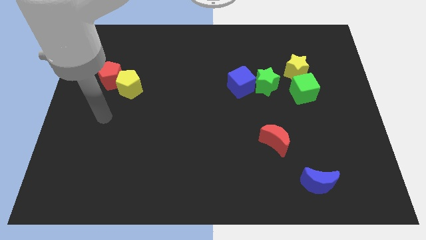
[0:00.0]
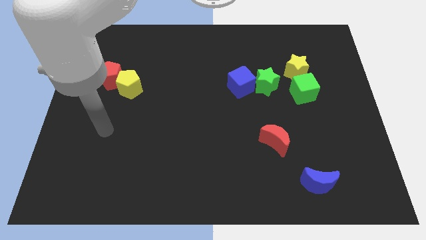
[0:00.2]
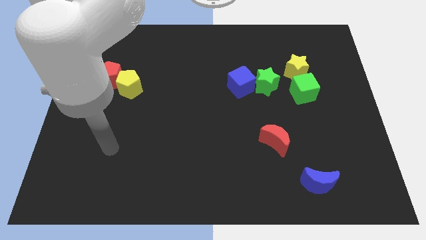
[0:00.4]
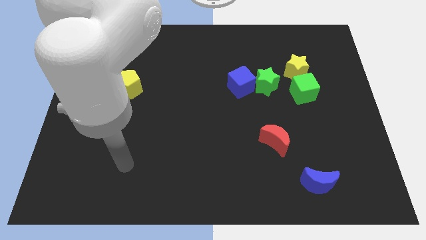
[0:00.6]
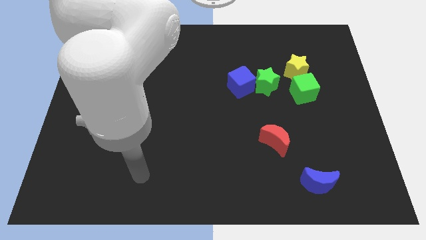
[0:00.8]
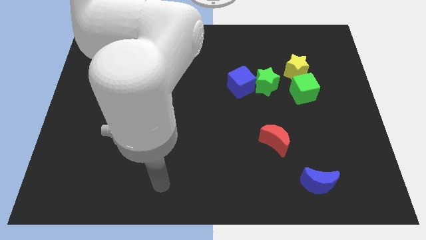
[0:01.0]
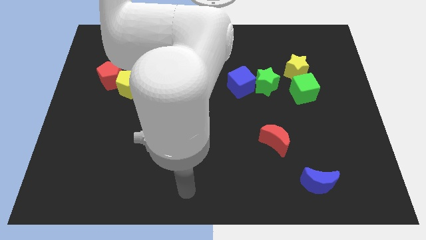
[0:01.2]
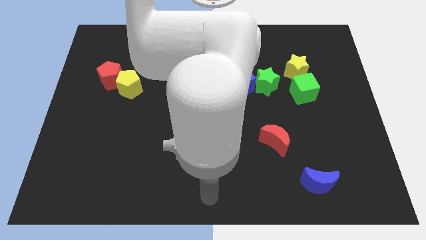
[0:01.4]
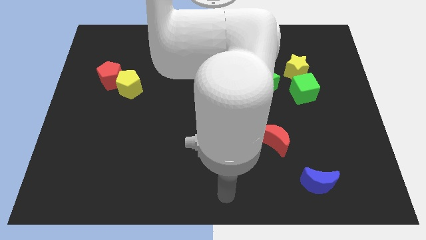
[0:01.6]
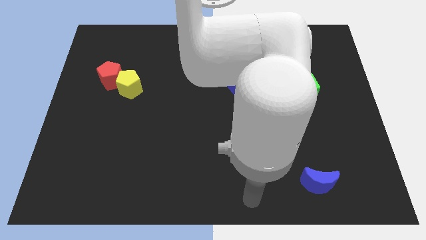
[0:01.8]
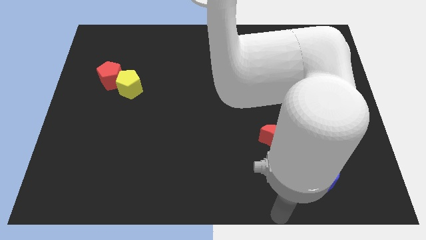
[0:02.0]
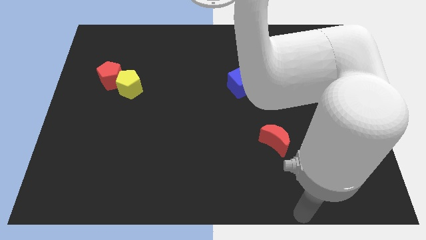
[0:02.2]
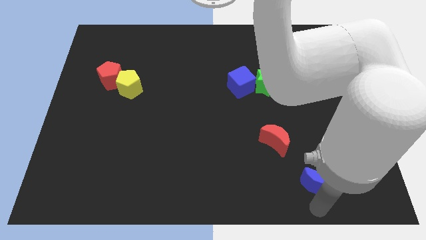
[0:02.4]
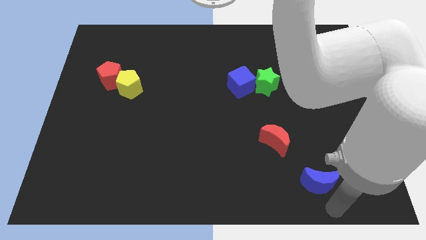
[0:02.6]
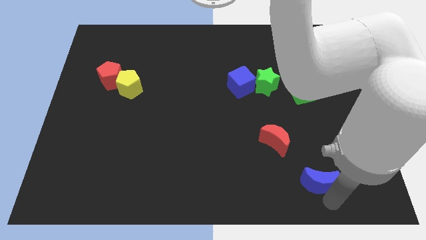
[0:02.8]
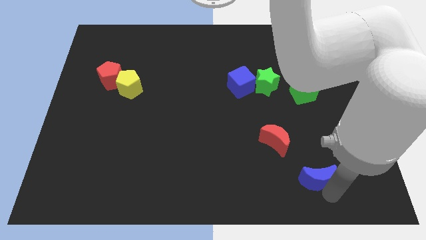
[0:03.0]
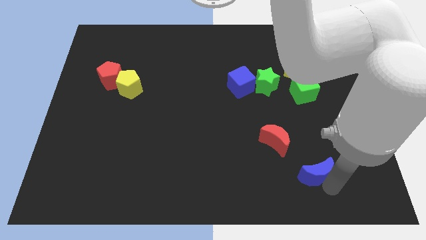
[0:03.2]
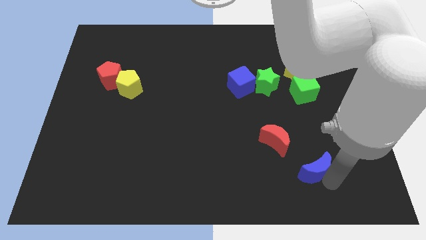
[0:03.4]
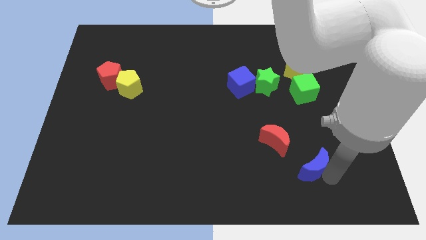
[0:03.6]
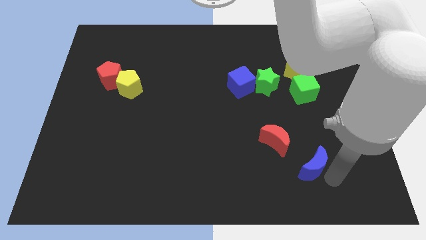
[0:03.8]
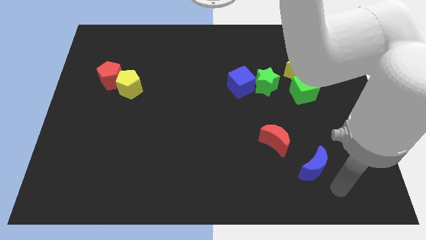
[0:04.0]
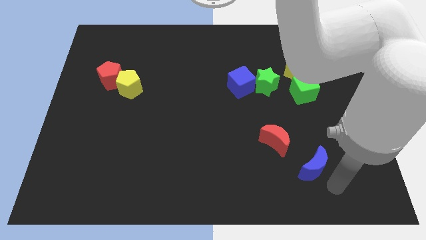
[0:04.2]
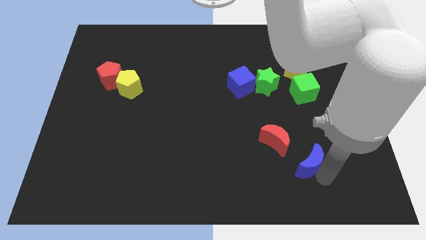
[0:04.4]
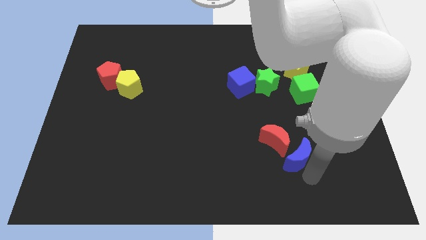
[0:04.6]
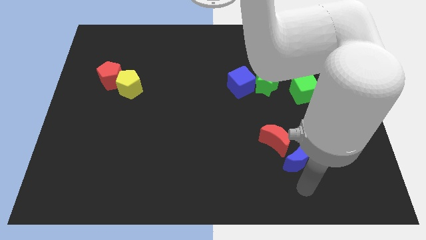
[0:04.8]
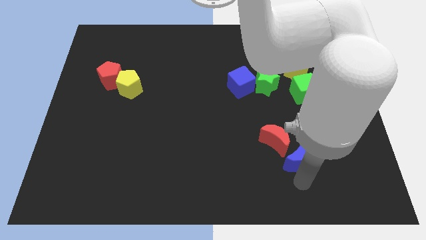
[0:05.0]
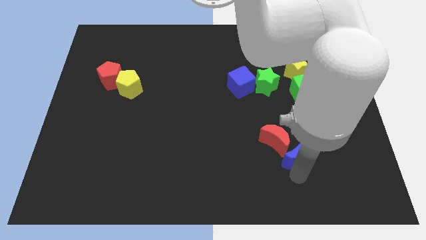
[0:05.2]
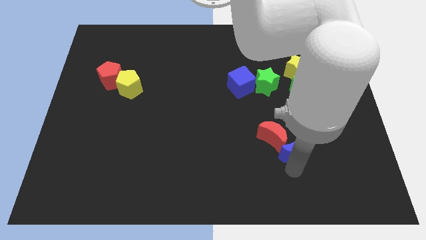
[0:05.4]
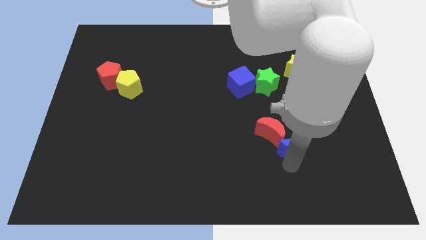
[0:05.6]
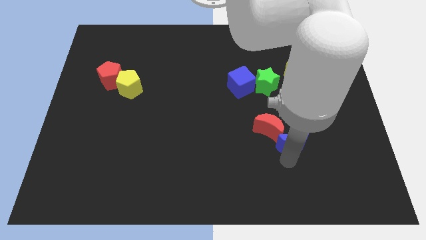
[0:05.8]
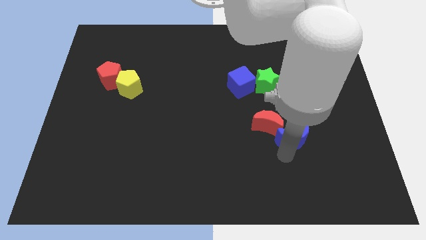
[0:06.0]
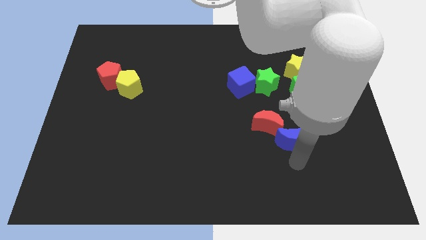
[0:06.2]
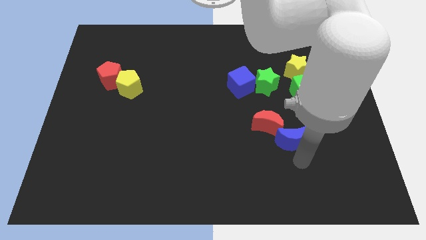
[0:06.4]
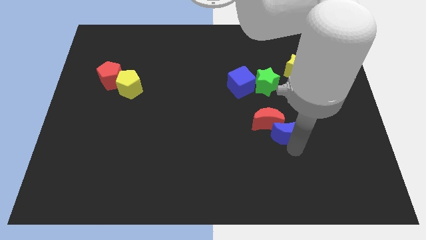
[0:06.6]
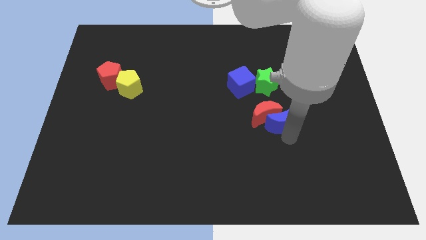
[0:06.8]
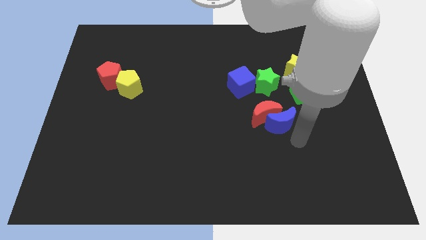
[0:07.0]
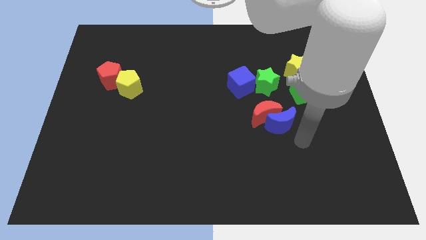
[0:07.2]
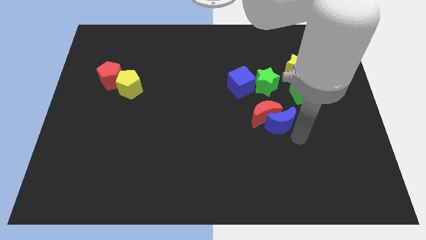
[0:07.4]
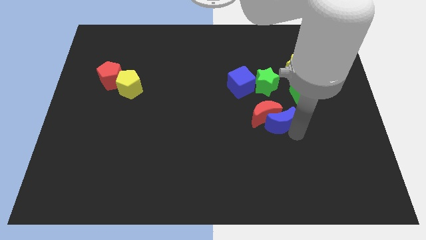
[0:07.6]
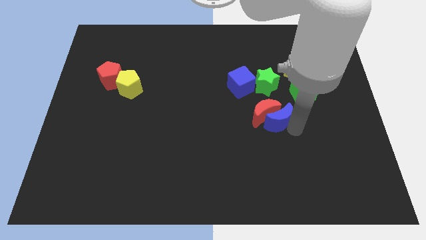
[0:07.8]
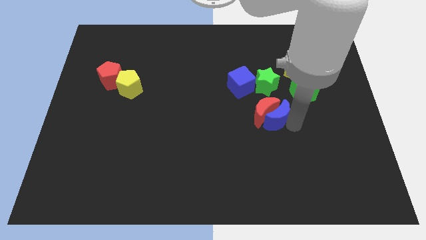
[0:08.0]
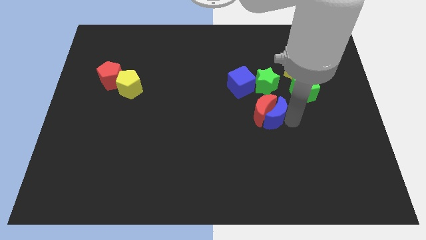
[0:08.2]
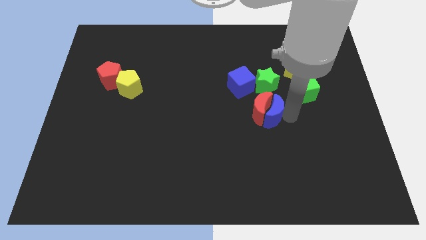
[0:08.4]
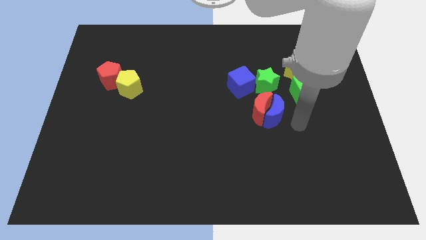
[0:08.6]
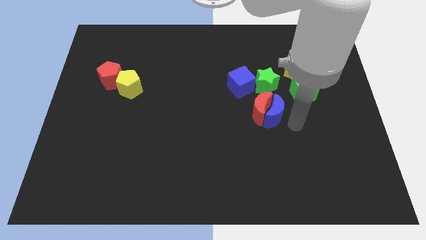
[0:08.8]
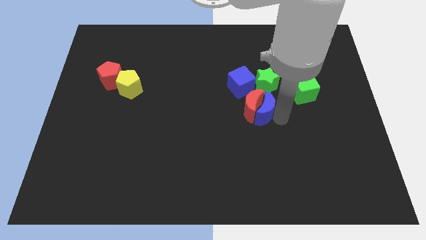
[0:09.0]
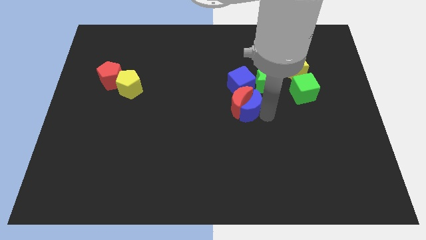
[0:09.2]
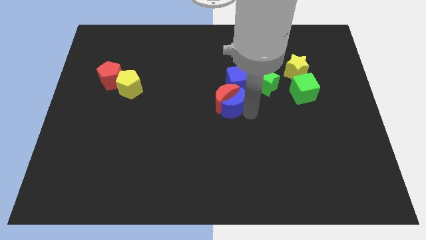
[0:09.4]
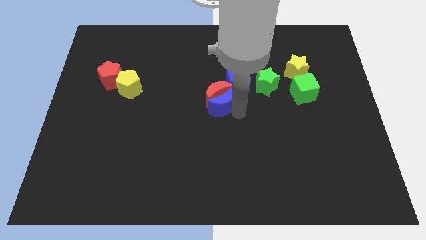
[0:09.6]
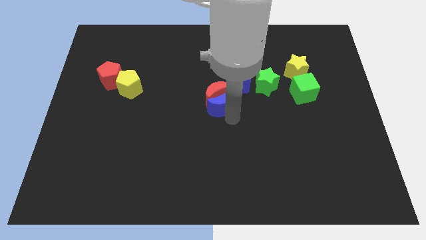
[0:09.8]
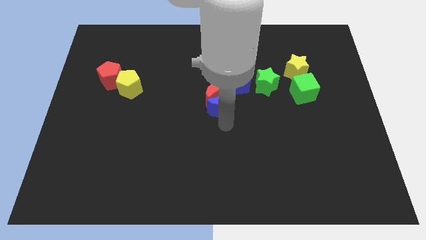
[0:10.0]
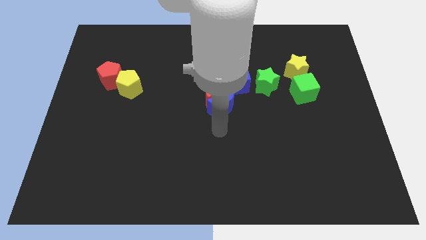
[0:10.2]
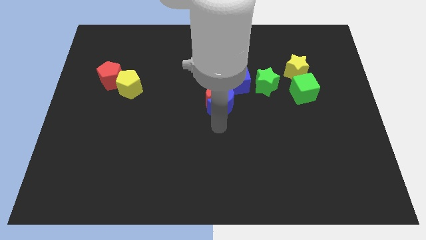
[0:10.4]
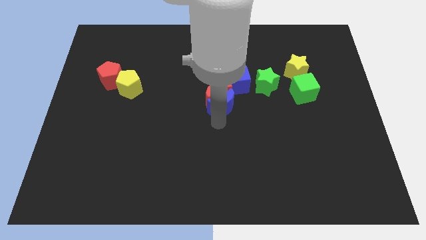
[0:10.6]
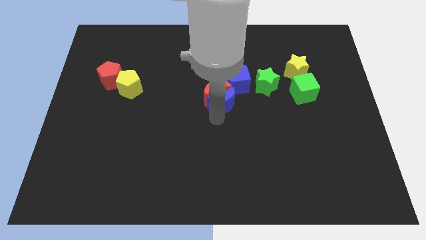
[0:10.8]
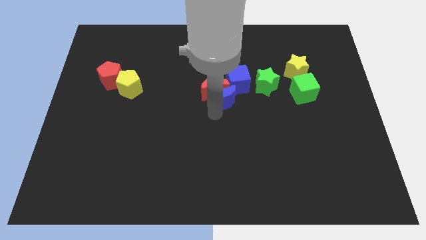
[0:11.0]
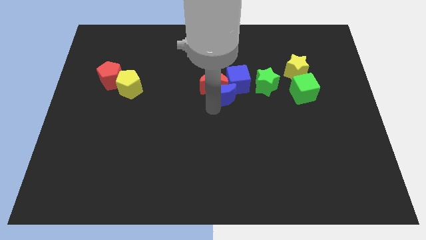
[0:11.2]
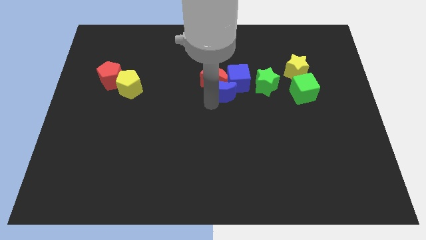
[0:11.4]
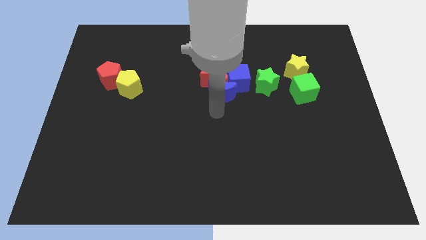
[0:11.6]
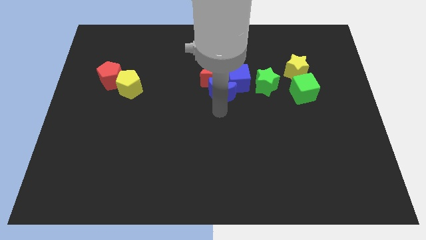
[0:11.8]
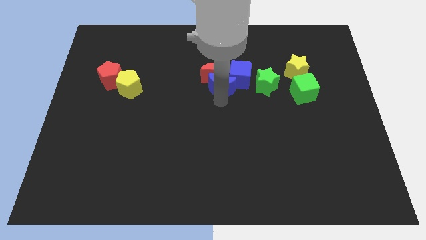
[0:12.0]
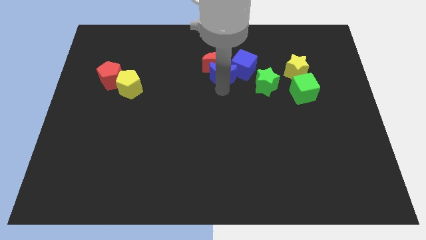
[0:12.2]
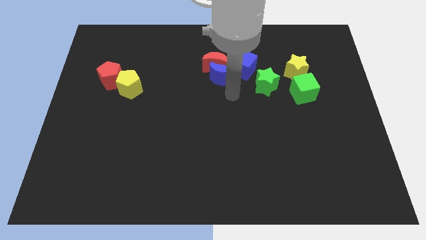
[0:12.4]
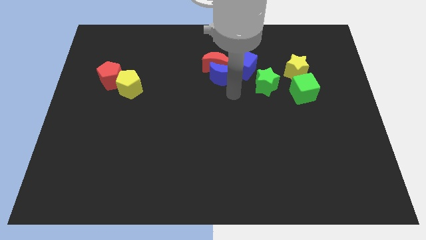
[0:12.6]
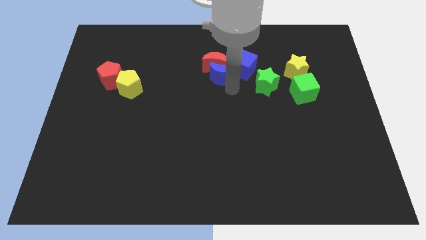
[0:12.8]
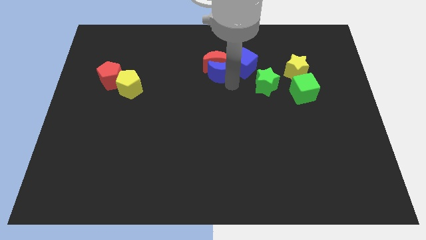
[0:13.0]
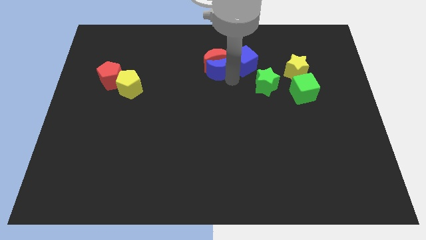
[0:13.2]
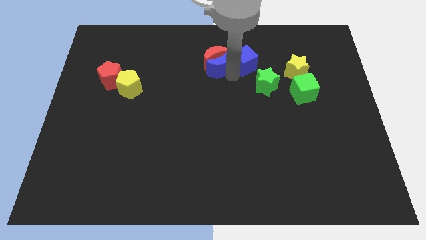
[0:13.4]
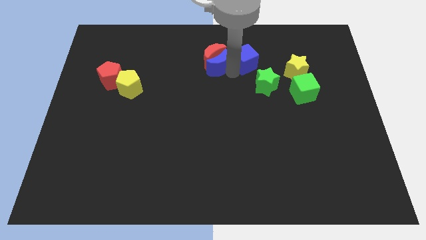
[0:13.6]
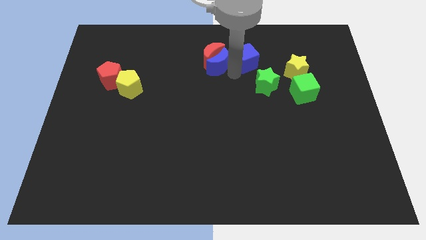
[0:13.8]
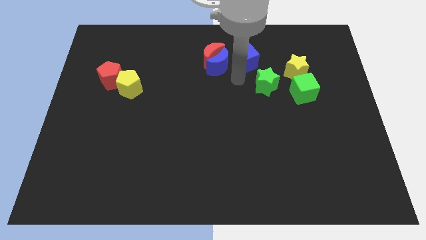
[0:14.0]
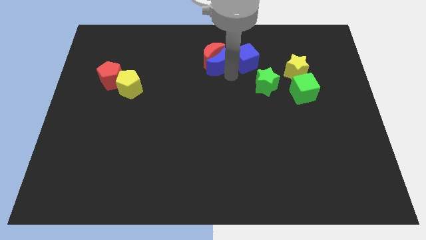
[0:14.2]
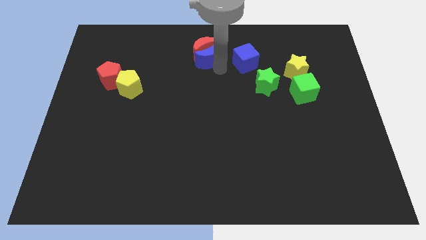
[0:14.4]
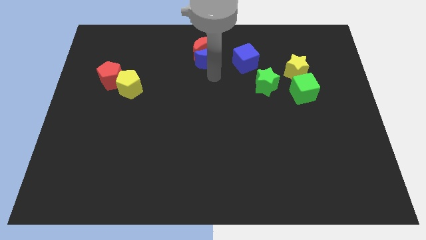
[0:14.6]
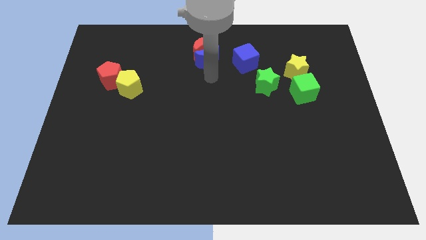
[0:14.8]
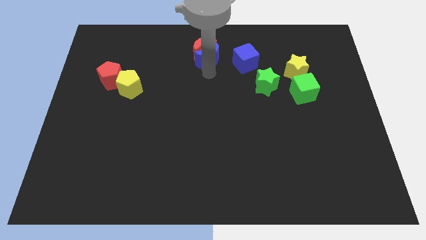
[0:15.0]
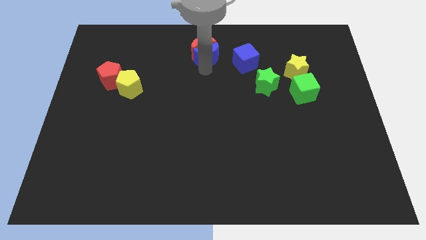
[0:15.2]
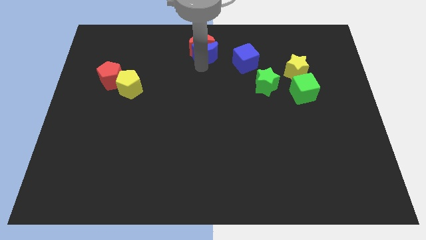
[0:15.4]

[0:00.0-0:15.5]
slide the blue moon to the top side
